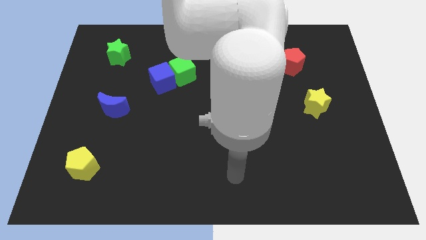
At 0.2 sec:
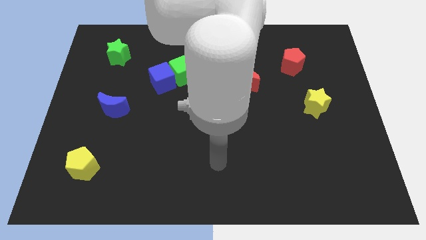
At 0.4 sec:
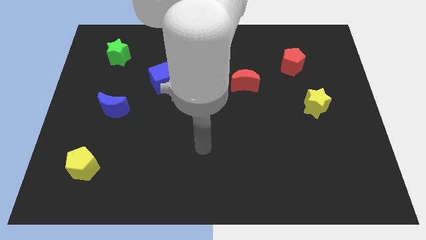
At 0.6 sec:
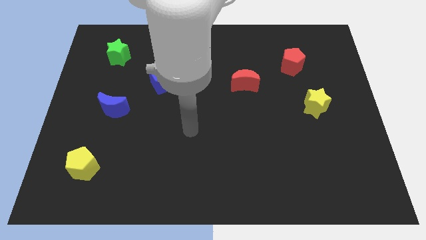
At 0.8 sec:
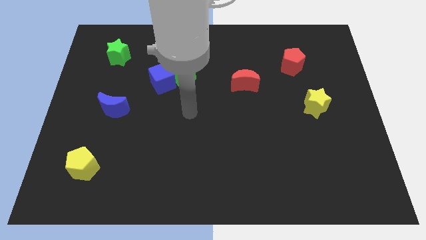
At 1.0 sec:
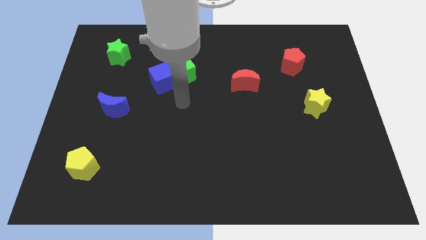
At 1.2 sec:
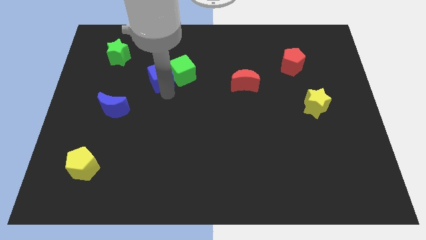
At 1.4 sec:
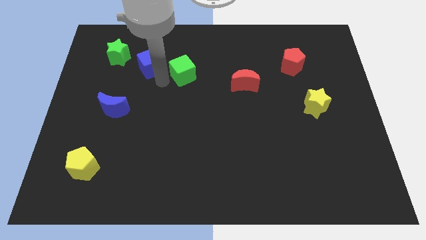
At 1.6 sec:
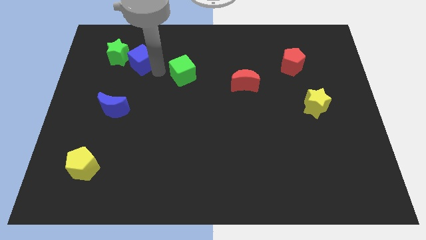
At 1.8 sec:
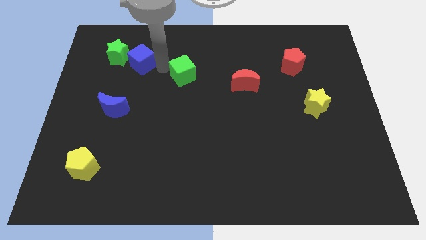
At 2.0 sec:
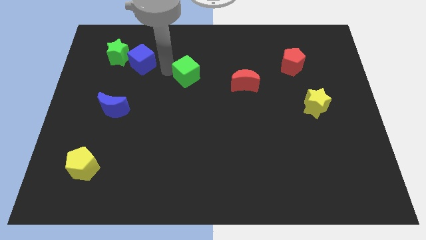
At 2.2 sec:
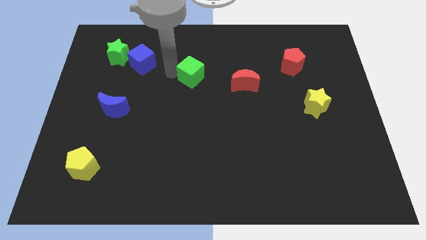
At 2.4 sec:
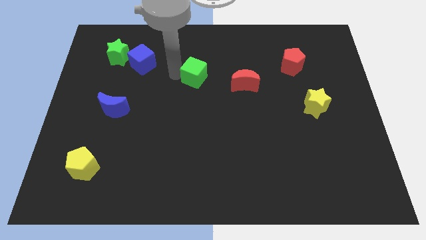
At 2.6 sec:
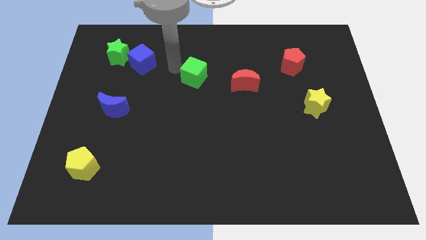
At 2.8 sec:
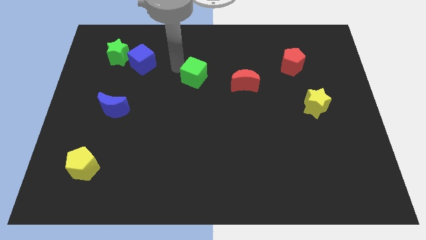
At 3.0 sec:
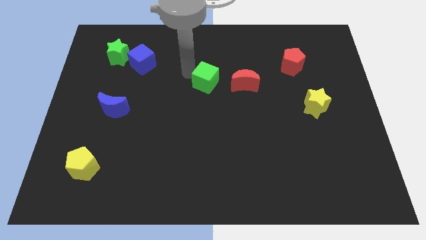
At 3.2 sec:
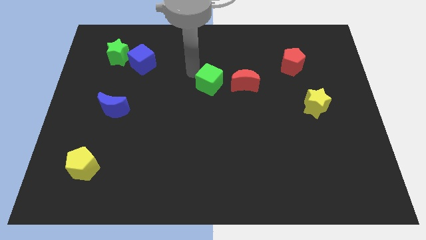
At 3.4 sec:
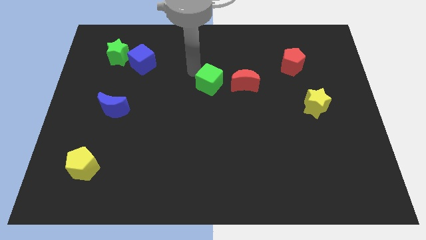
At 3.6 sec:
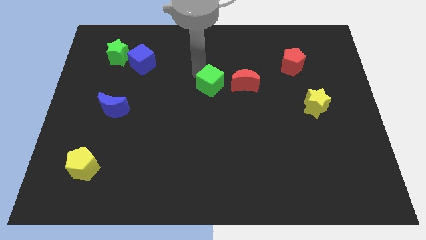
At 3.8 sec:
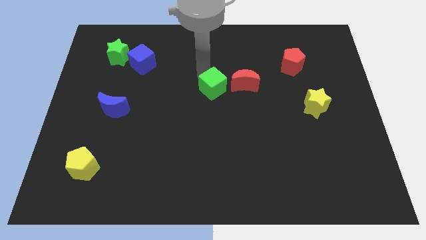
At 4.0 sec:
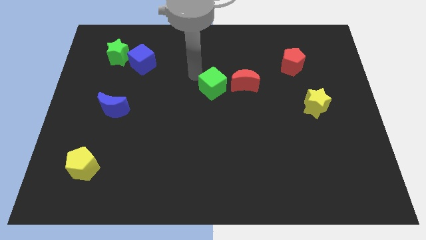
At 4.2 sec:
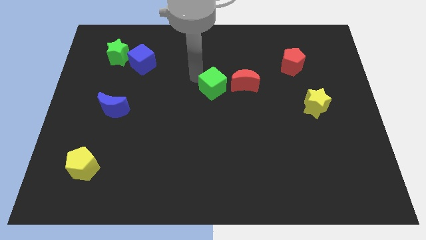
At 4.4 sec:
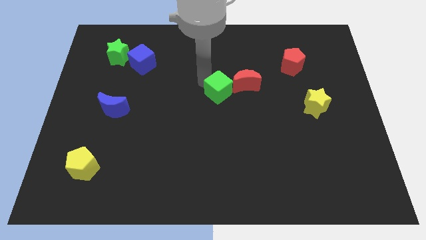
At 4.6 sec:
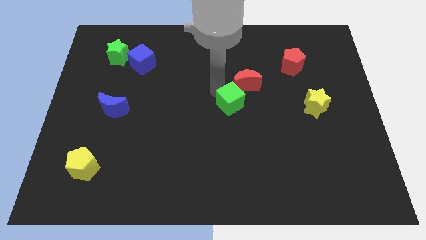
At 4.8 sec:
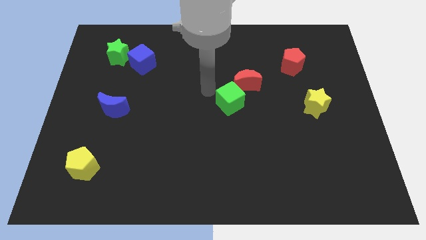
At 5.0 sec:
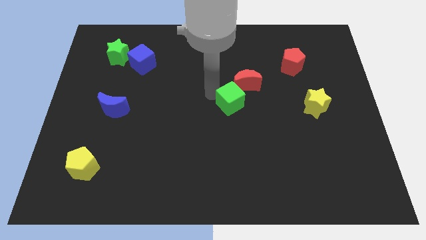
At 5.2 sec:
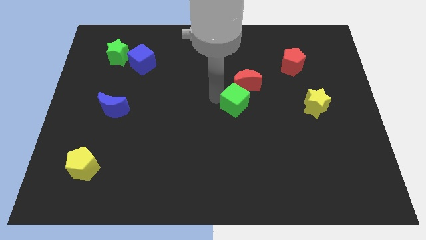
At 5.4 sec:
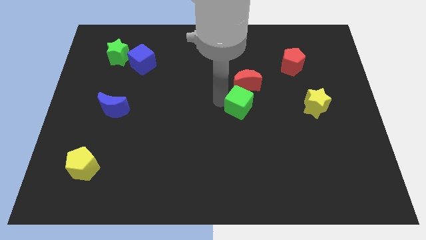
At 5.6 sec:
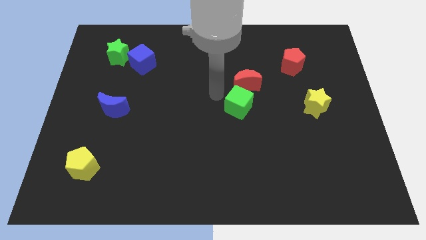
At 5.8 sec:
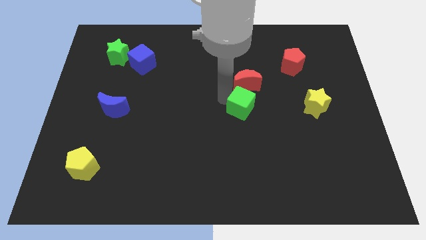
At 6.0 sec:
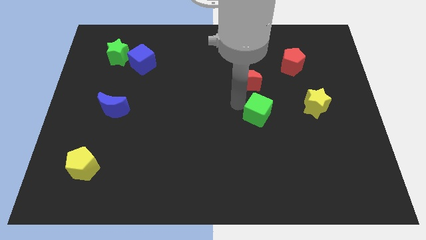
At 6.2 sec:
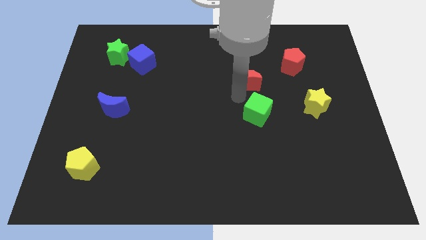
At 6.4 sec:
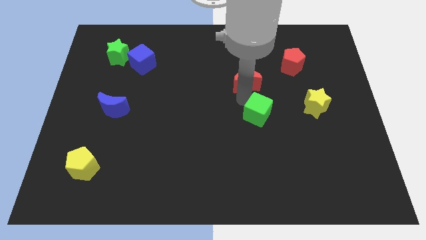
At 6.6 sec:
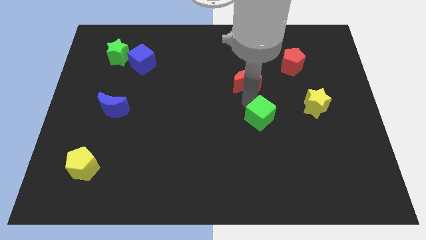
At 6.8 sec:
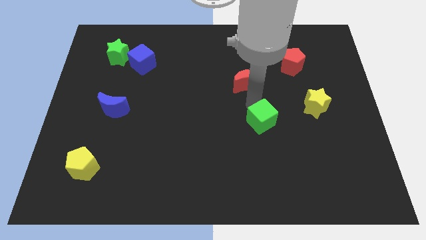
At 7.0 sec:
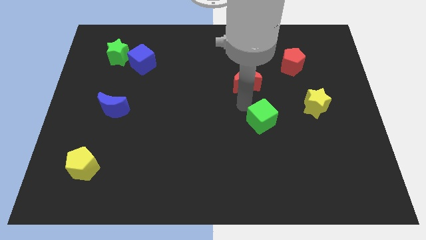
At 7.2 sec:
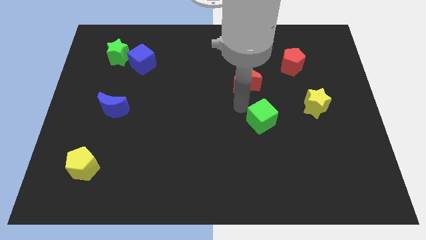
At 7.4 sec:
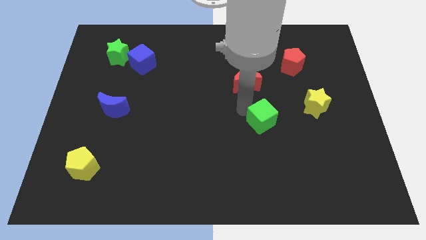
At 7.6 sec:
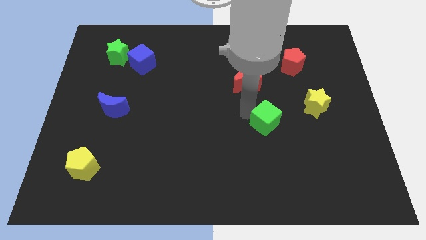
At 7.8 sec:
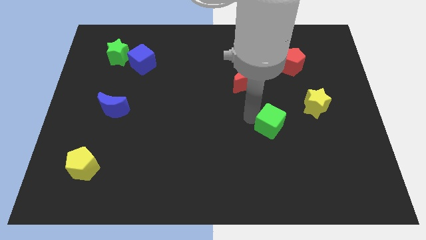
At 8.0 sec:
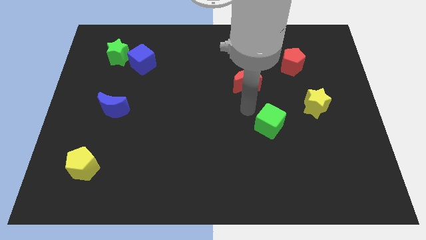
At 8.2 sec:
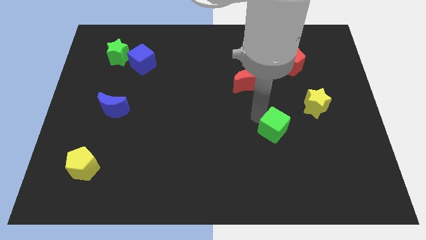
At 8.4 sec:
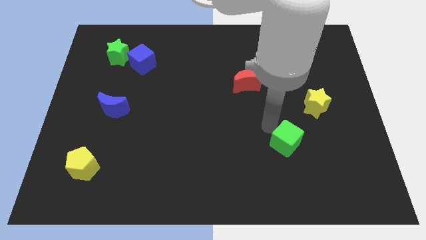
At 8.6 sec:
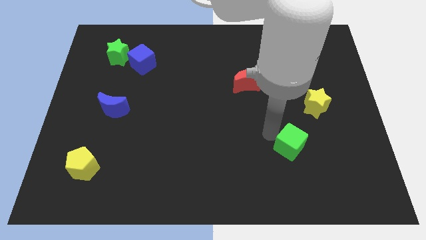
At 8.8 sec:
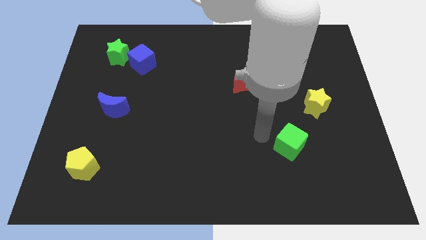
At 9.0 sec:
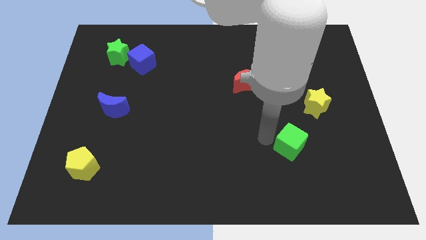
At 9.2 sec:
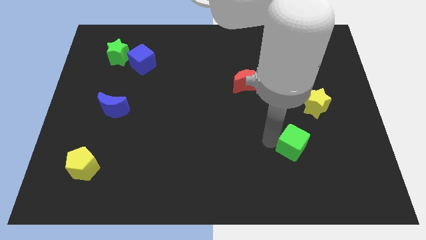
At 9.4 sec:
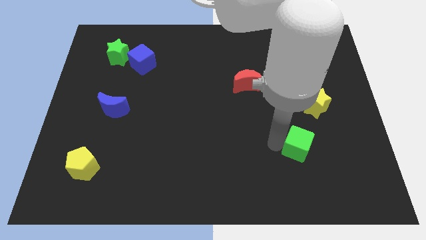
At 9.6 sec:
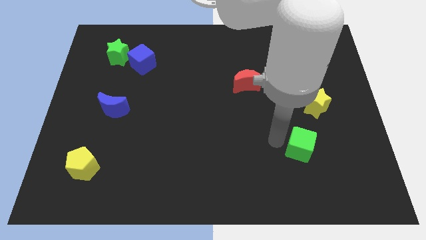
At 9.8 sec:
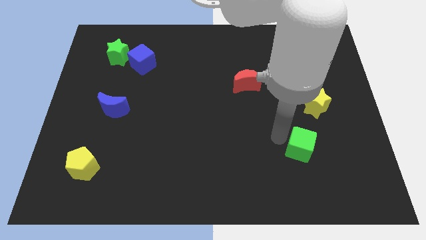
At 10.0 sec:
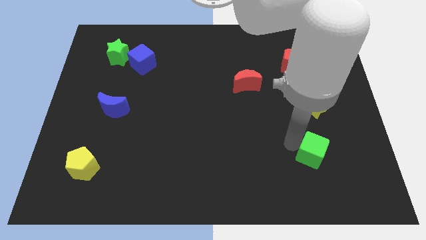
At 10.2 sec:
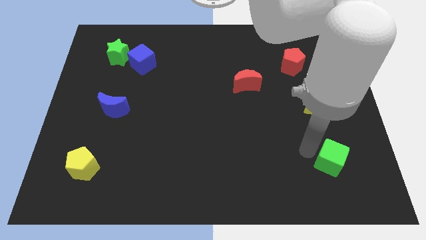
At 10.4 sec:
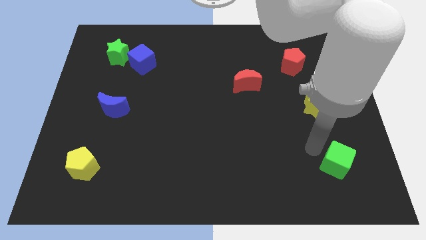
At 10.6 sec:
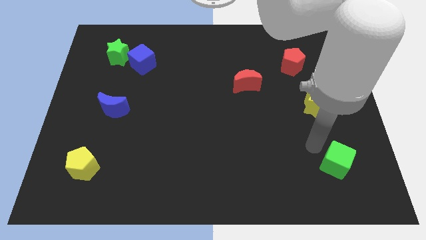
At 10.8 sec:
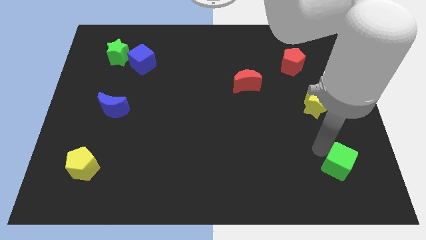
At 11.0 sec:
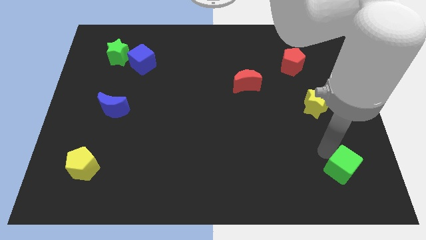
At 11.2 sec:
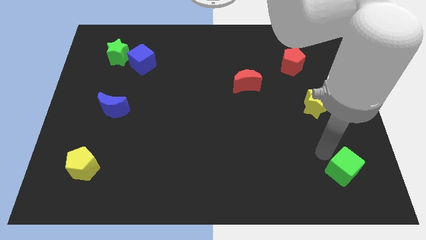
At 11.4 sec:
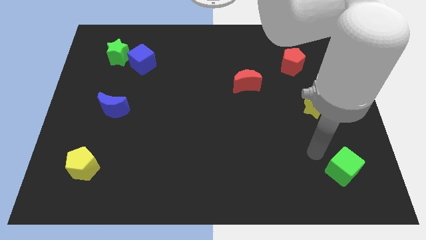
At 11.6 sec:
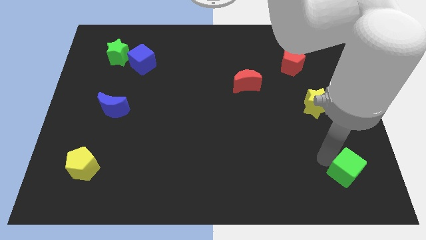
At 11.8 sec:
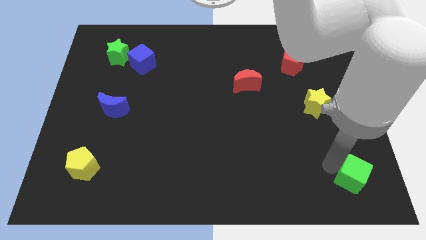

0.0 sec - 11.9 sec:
push the green cube to the bottom right of the board
